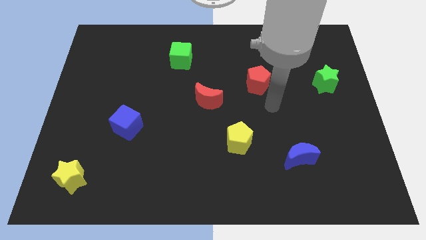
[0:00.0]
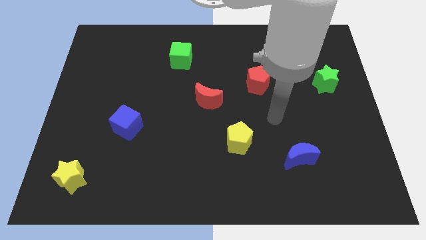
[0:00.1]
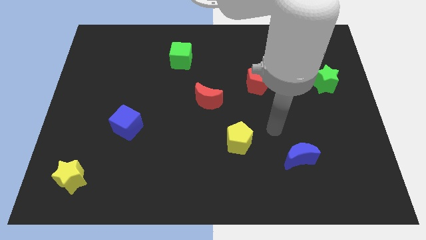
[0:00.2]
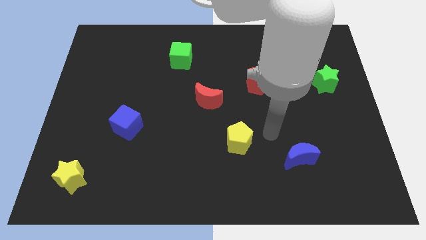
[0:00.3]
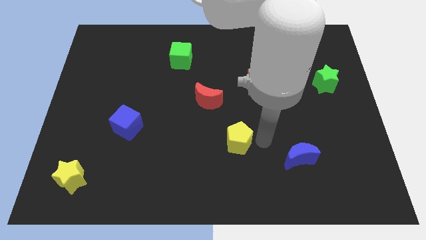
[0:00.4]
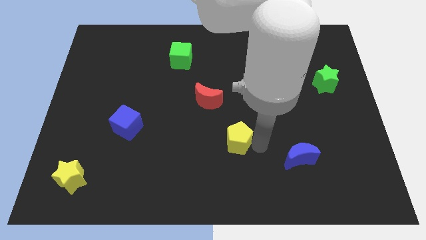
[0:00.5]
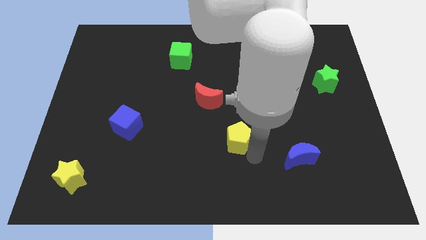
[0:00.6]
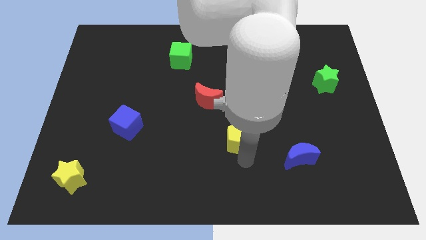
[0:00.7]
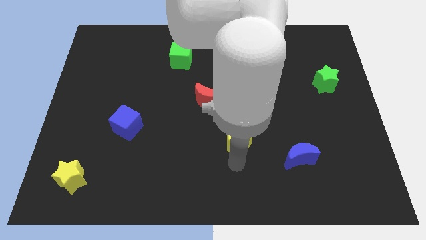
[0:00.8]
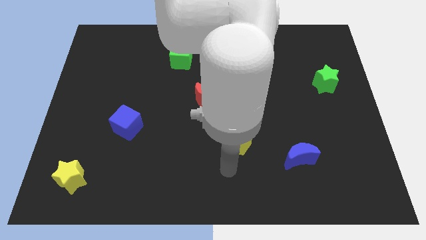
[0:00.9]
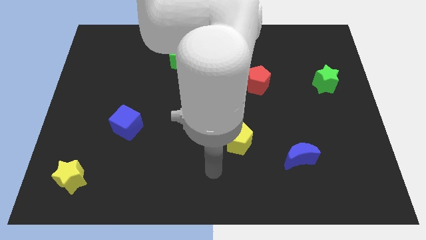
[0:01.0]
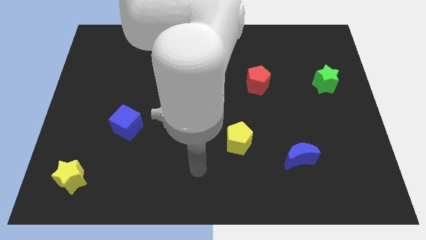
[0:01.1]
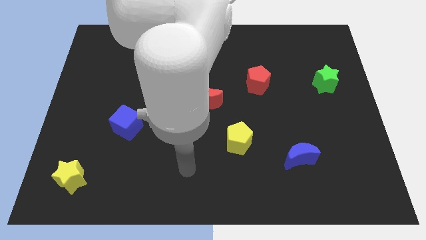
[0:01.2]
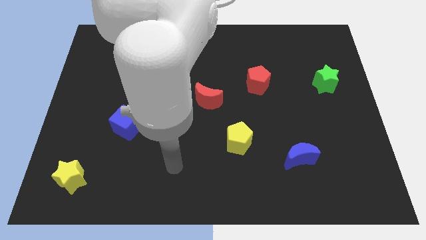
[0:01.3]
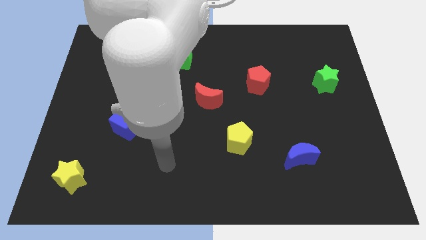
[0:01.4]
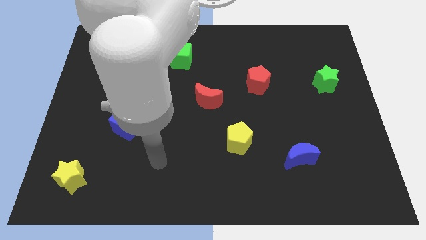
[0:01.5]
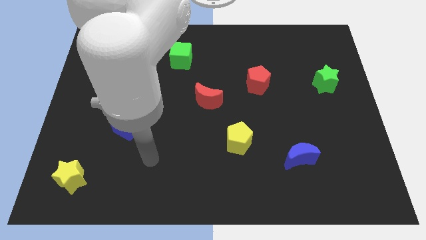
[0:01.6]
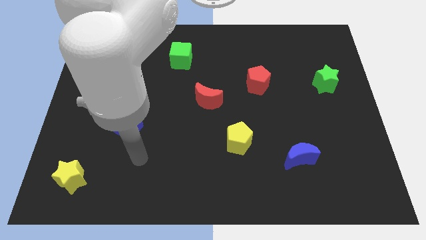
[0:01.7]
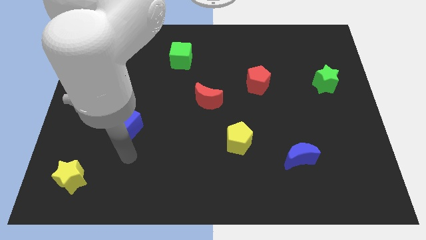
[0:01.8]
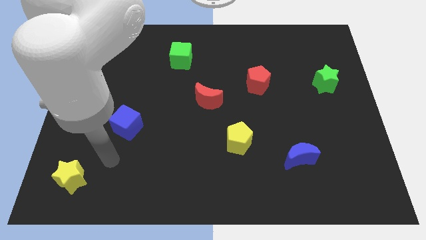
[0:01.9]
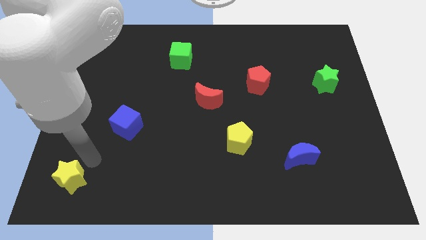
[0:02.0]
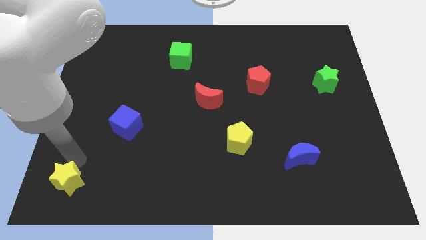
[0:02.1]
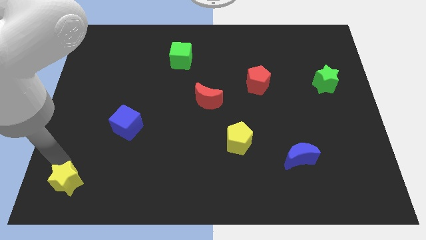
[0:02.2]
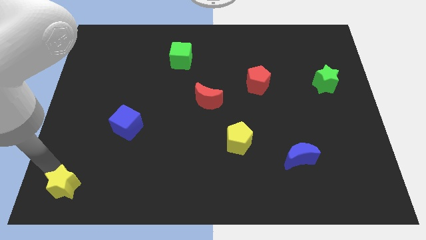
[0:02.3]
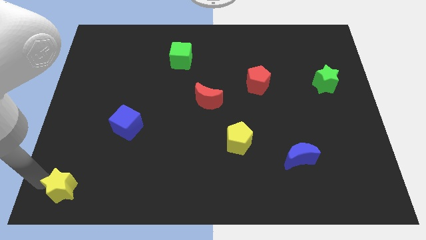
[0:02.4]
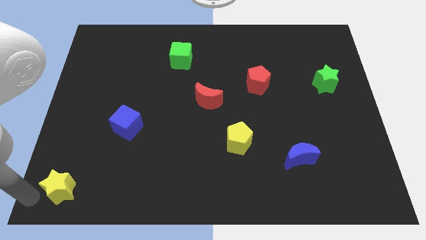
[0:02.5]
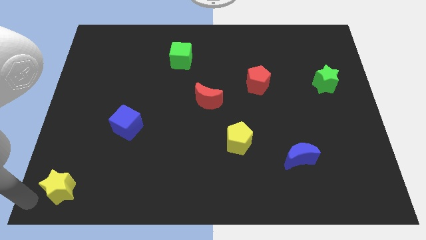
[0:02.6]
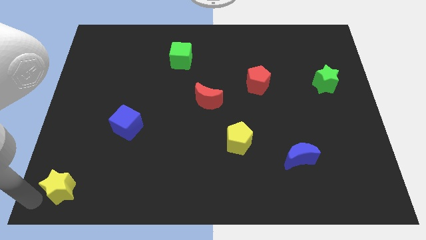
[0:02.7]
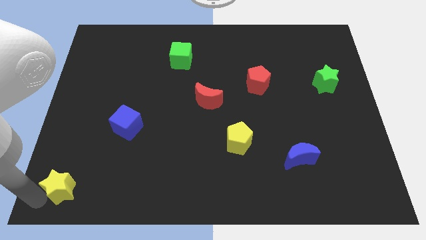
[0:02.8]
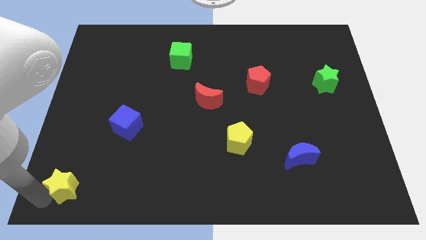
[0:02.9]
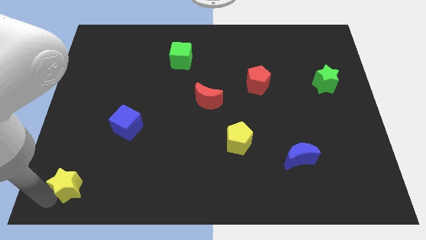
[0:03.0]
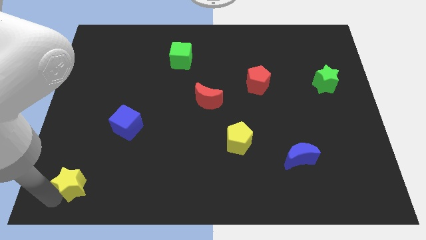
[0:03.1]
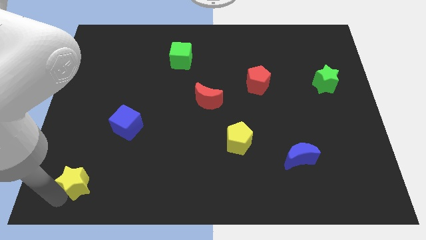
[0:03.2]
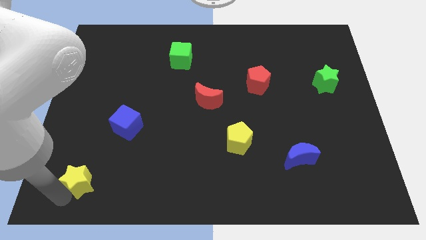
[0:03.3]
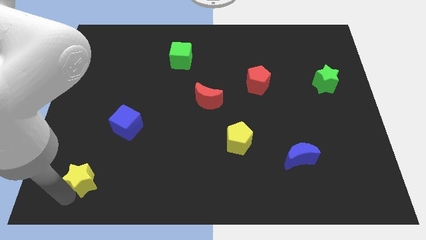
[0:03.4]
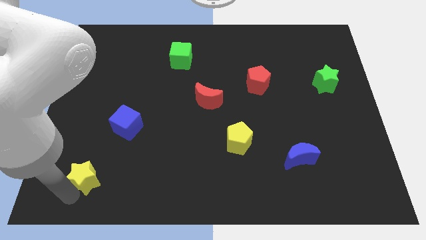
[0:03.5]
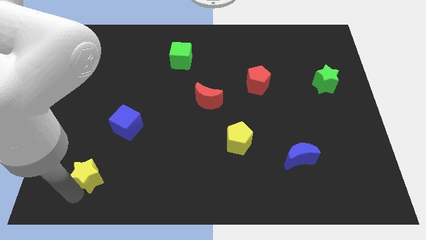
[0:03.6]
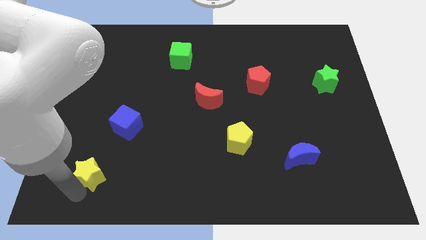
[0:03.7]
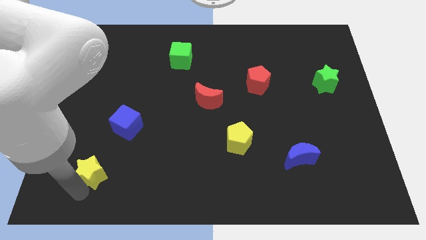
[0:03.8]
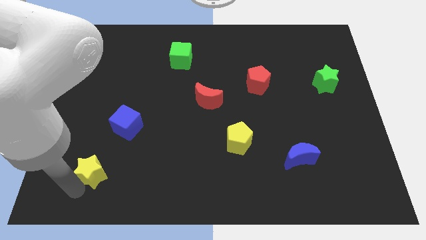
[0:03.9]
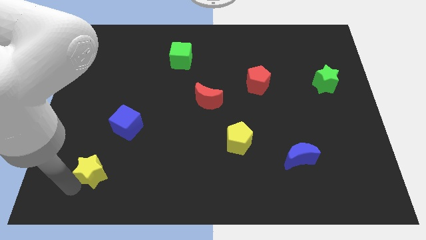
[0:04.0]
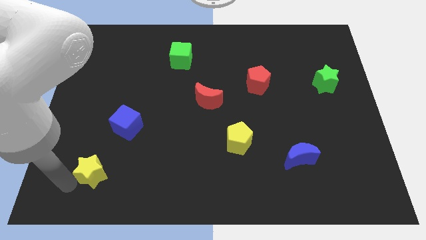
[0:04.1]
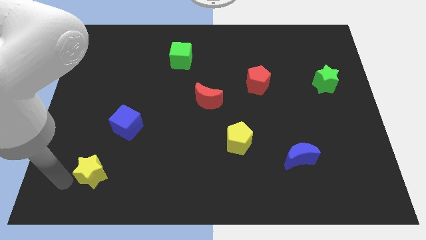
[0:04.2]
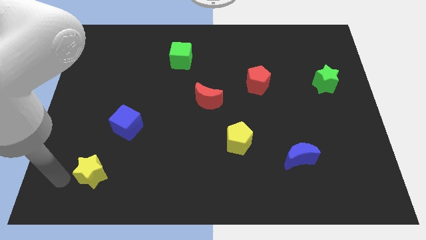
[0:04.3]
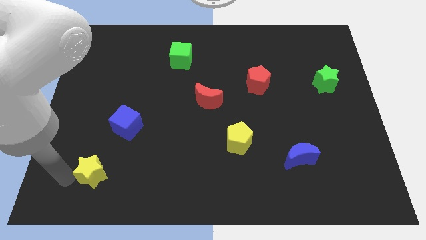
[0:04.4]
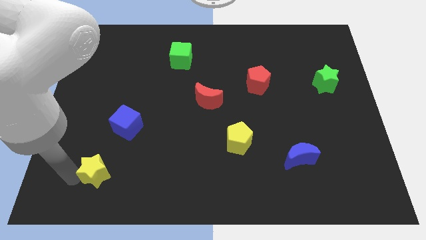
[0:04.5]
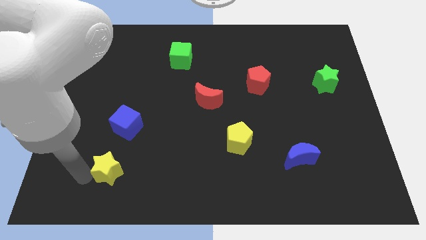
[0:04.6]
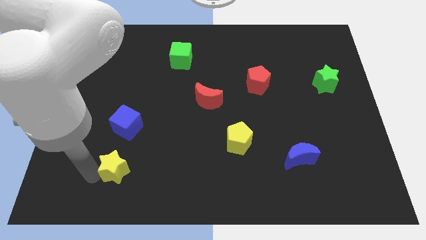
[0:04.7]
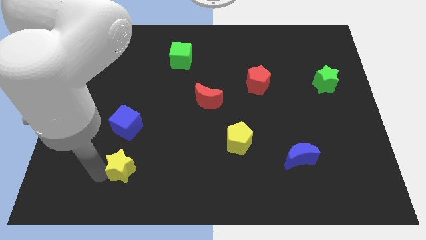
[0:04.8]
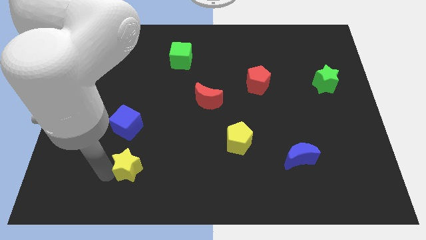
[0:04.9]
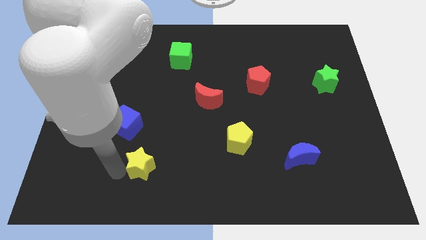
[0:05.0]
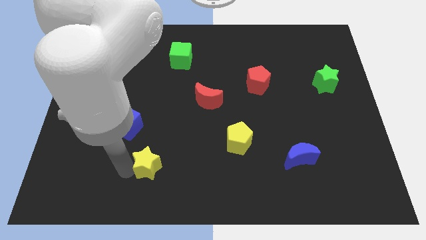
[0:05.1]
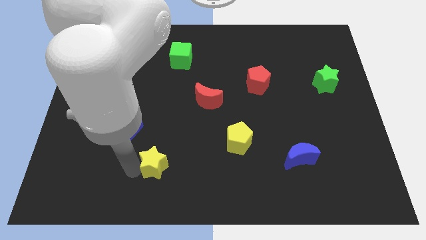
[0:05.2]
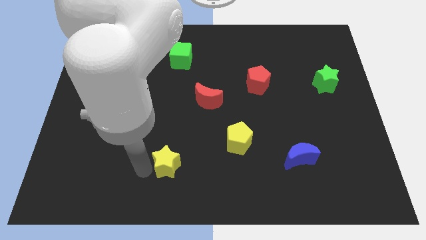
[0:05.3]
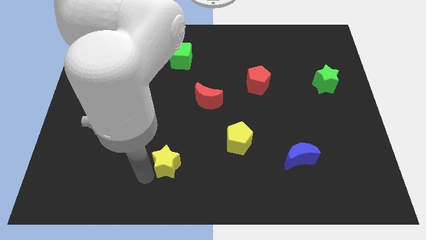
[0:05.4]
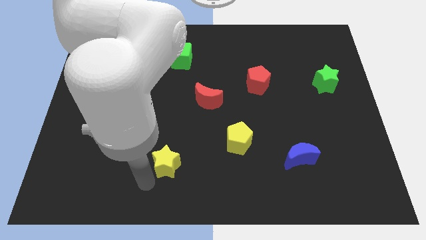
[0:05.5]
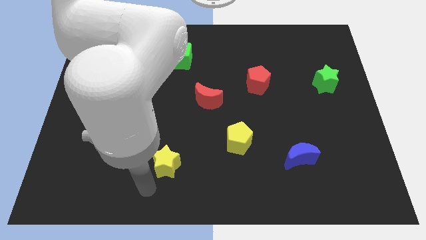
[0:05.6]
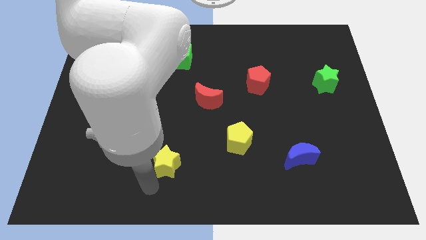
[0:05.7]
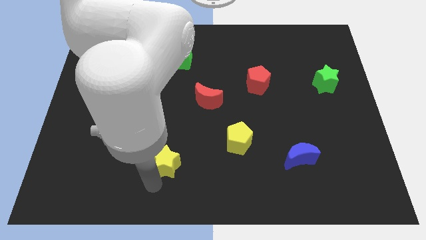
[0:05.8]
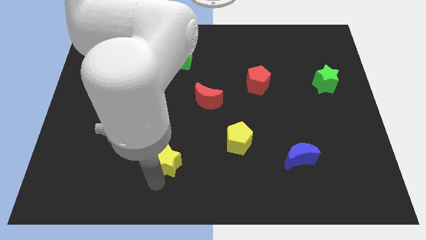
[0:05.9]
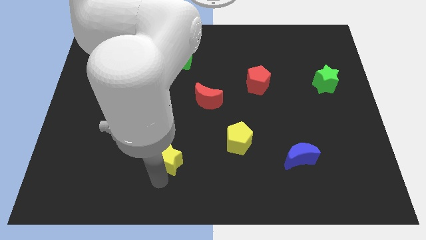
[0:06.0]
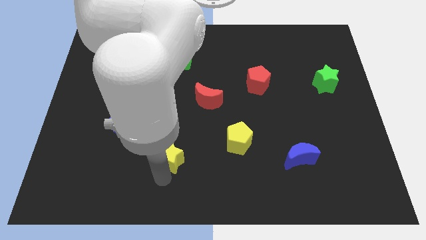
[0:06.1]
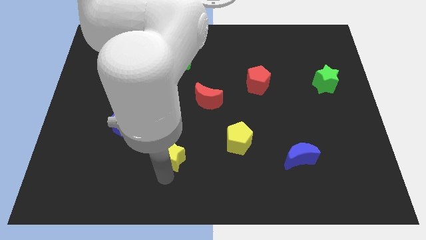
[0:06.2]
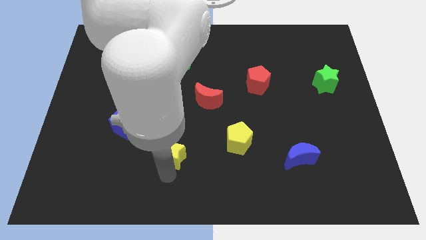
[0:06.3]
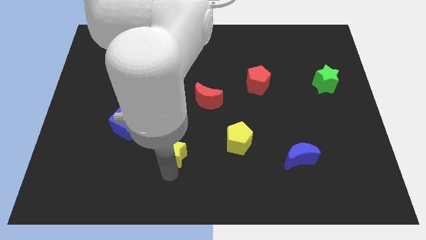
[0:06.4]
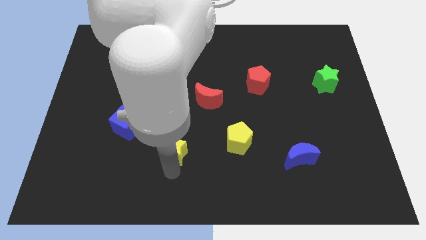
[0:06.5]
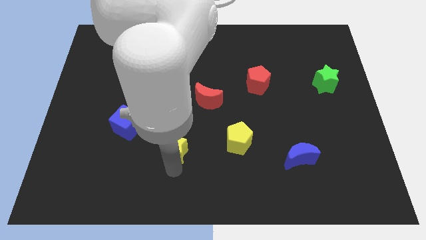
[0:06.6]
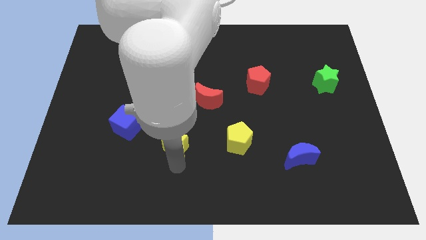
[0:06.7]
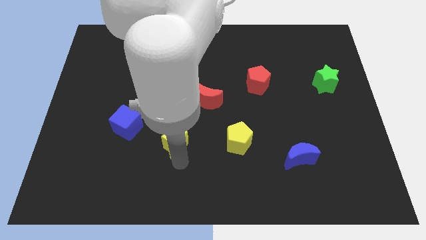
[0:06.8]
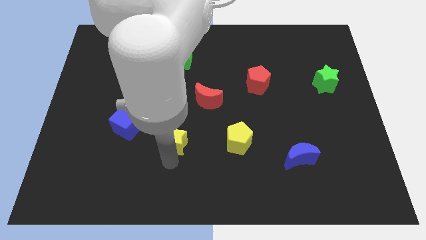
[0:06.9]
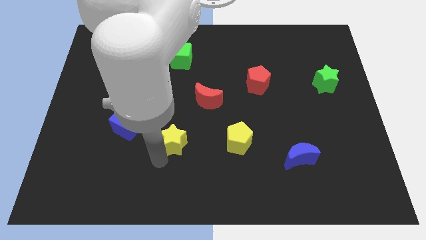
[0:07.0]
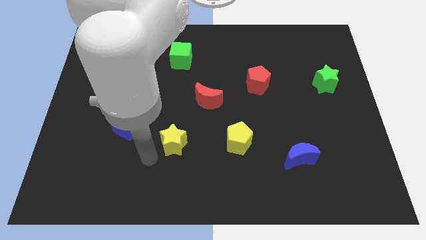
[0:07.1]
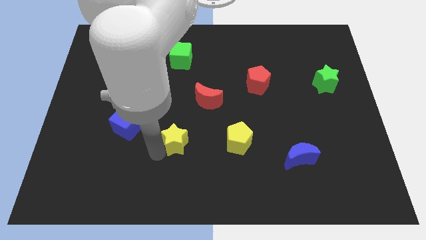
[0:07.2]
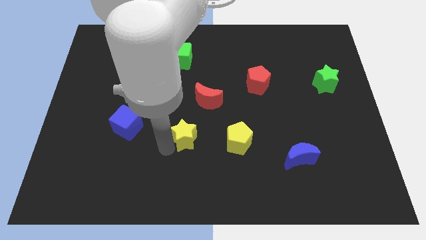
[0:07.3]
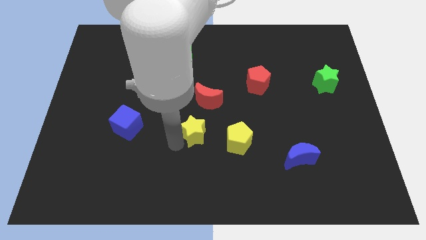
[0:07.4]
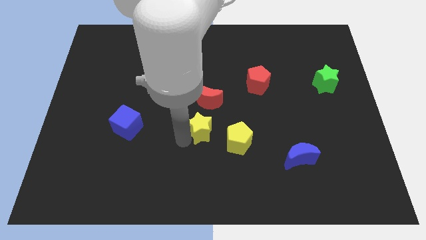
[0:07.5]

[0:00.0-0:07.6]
put the yellow star diagonally up and to the left of the yellow pentagon

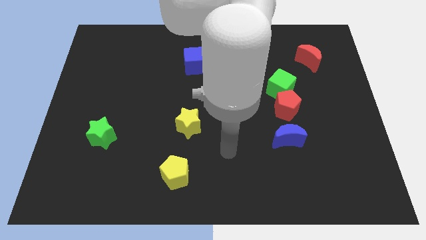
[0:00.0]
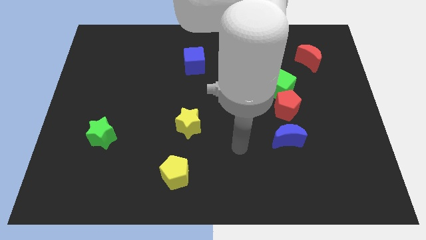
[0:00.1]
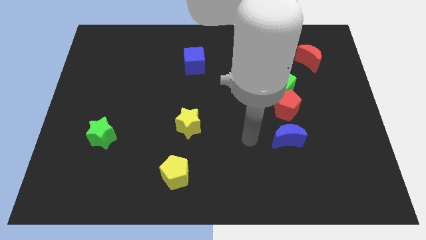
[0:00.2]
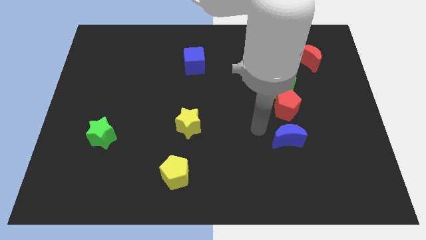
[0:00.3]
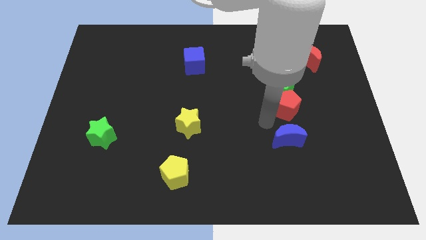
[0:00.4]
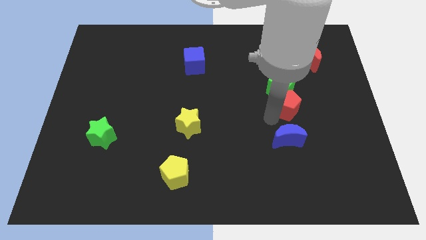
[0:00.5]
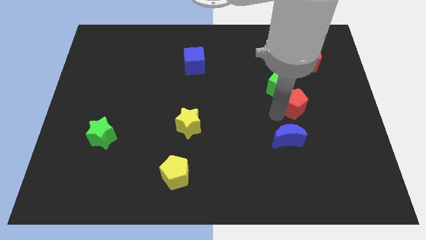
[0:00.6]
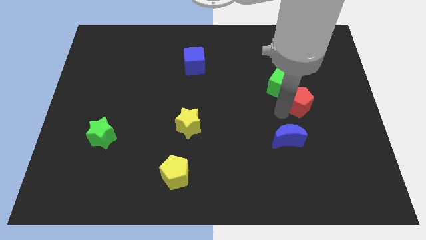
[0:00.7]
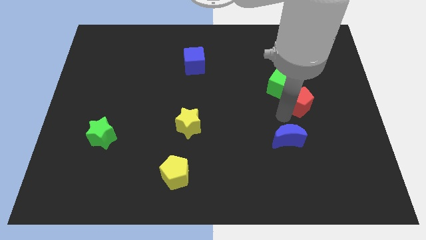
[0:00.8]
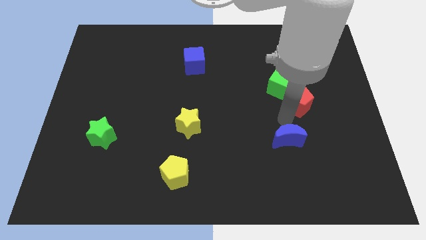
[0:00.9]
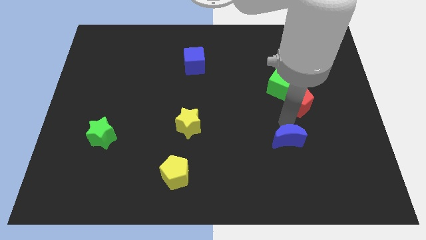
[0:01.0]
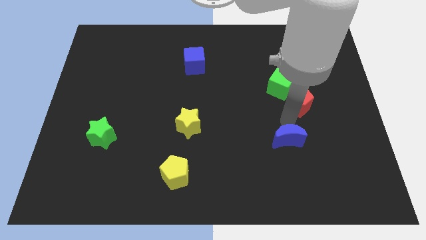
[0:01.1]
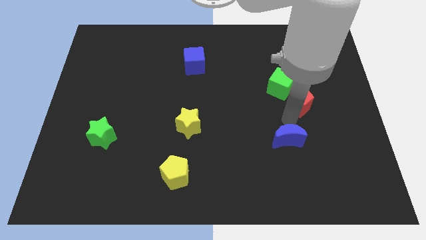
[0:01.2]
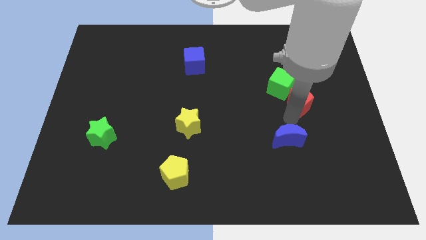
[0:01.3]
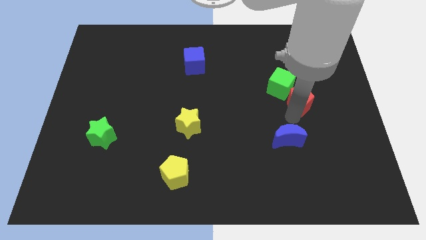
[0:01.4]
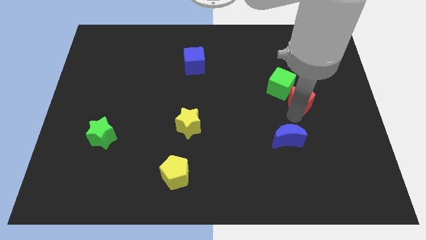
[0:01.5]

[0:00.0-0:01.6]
slide the red pentagon right of the green cube
